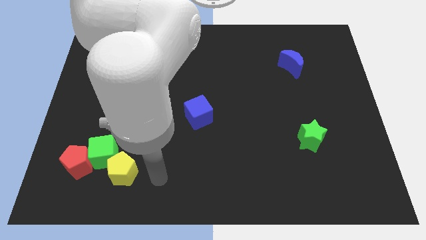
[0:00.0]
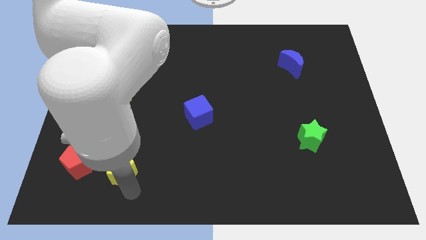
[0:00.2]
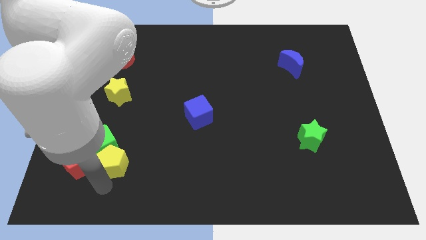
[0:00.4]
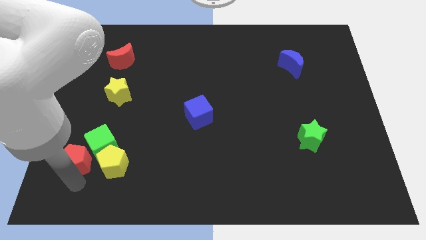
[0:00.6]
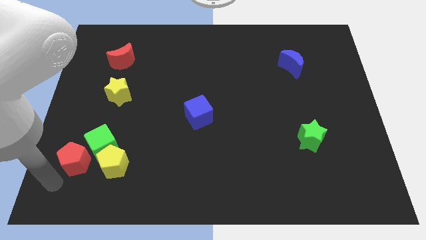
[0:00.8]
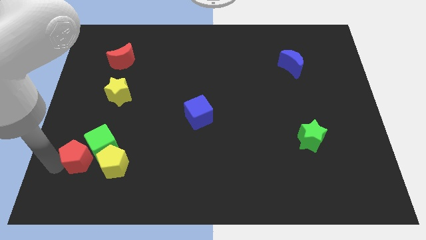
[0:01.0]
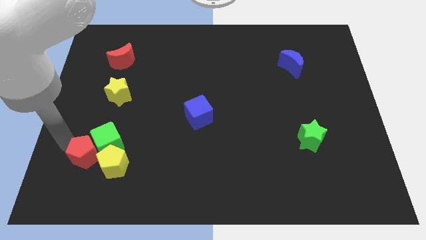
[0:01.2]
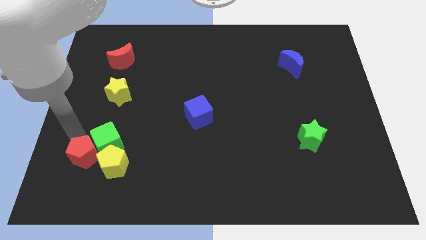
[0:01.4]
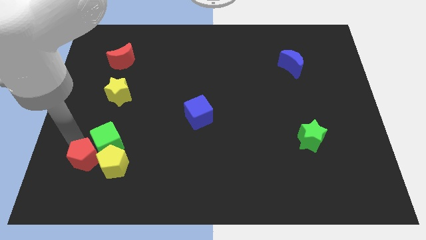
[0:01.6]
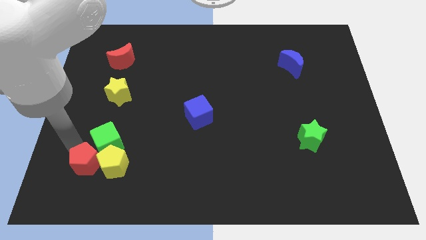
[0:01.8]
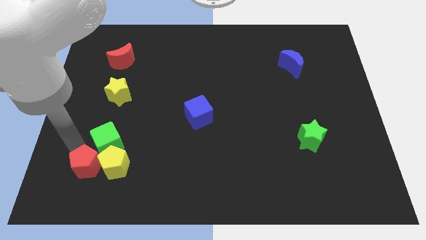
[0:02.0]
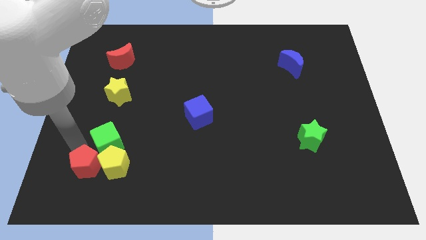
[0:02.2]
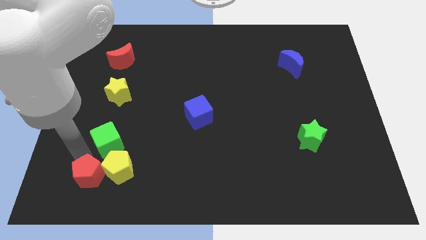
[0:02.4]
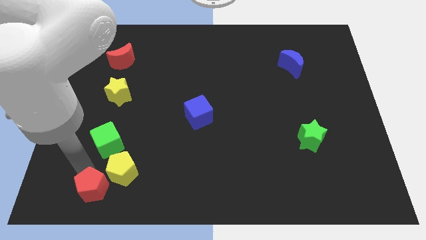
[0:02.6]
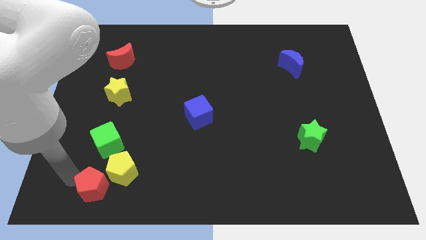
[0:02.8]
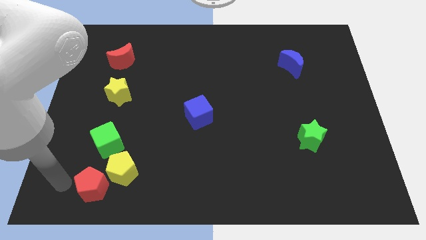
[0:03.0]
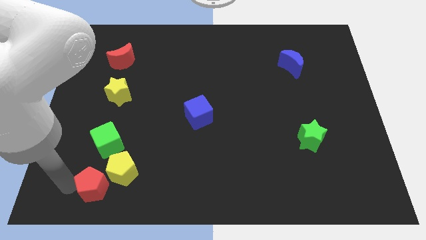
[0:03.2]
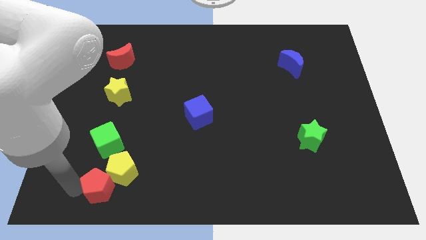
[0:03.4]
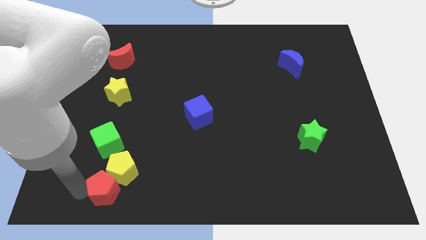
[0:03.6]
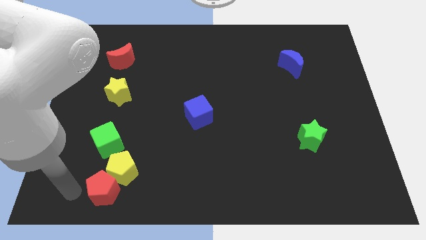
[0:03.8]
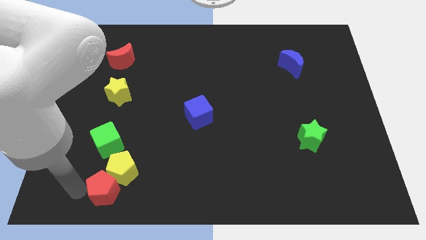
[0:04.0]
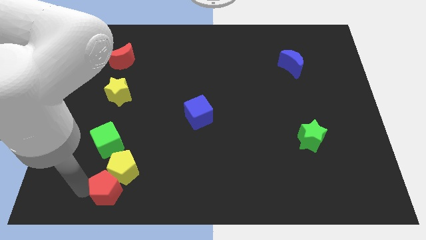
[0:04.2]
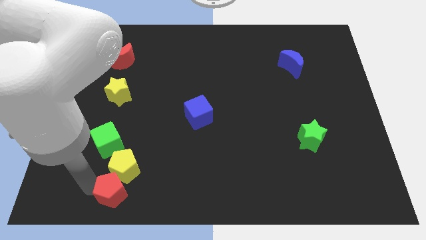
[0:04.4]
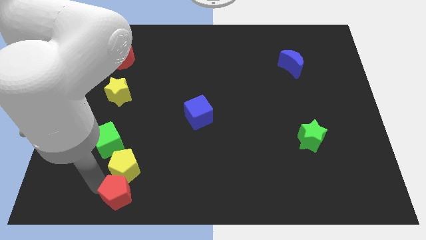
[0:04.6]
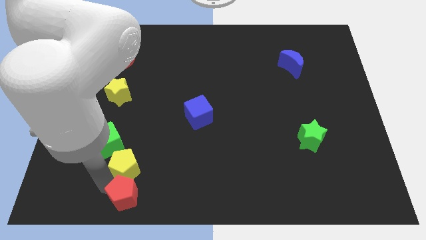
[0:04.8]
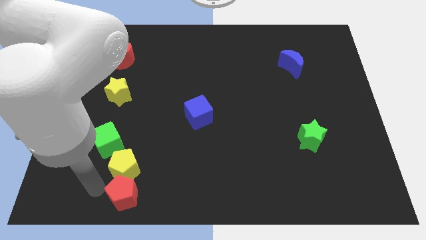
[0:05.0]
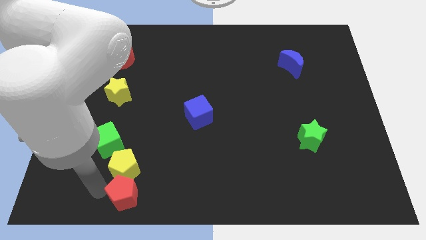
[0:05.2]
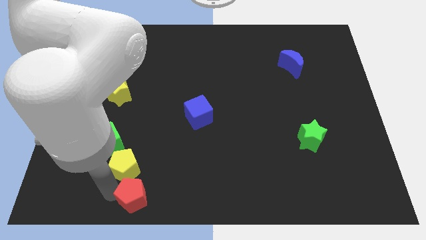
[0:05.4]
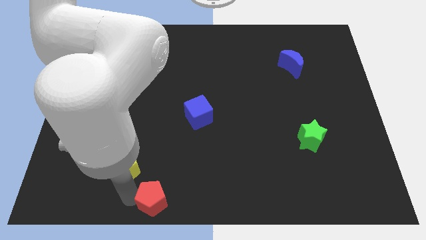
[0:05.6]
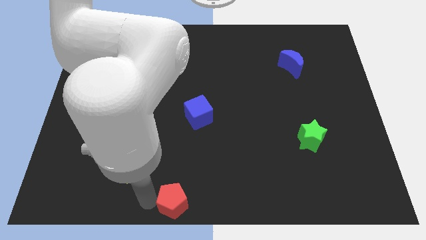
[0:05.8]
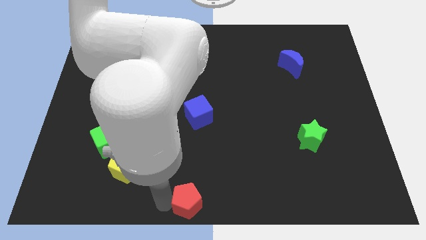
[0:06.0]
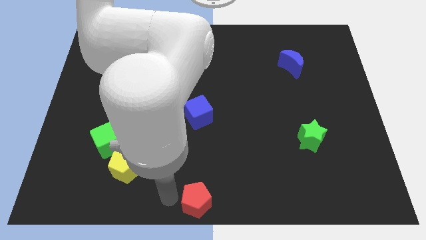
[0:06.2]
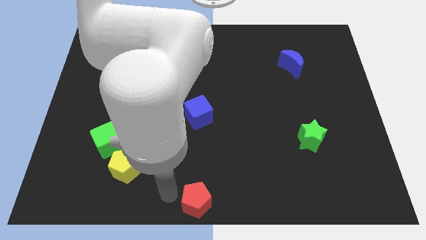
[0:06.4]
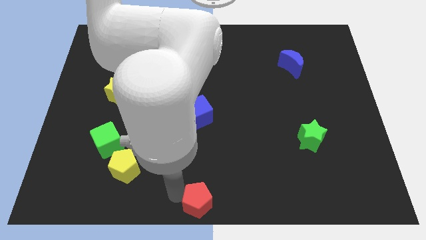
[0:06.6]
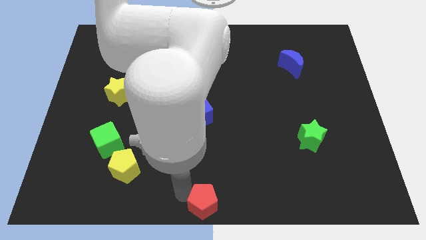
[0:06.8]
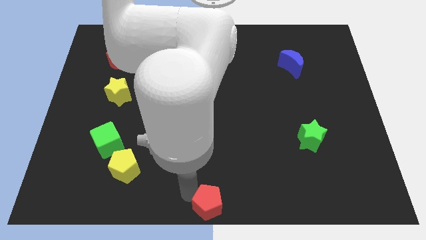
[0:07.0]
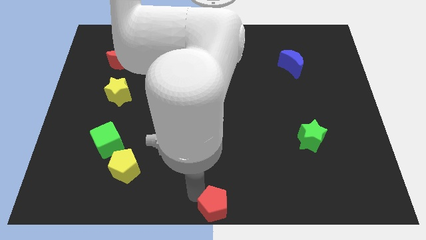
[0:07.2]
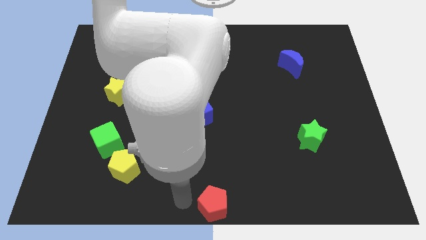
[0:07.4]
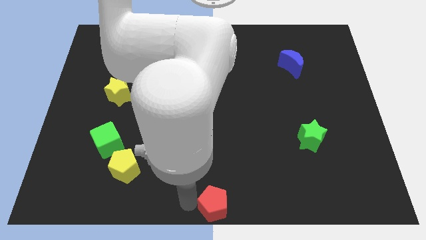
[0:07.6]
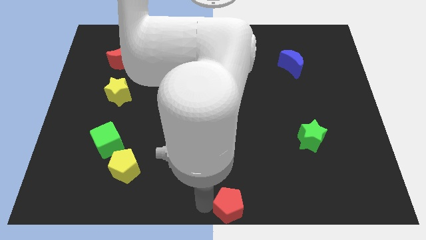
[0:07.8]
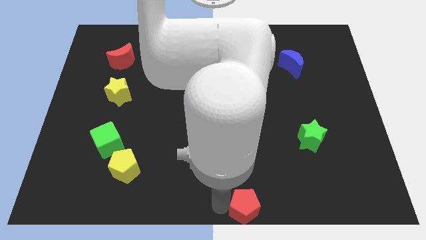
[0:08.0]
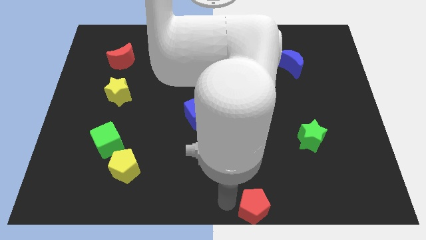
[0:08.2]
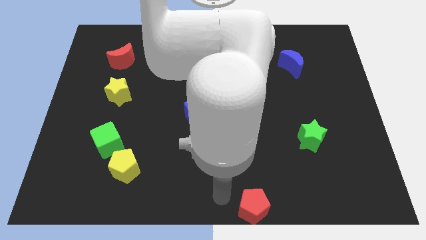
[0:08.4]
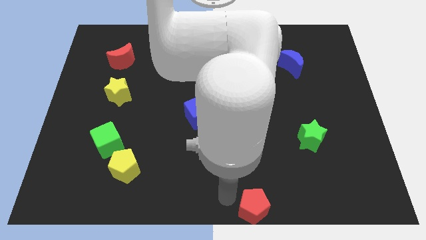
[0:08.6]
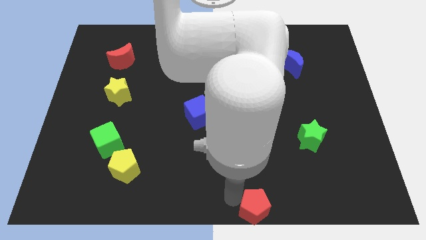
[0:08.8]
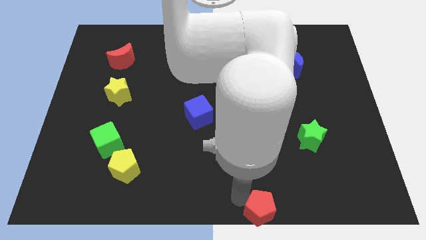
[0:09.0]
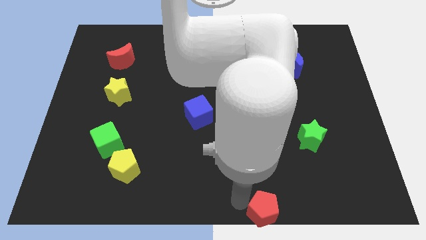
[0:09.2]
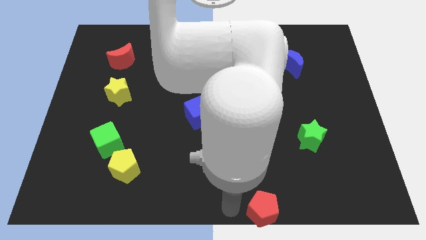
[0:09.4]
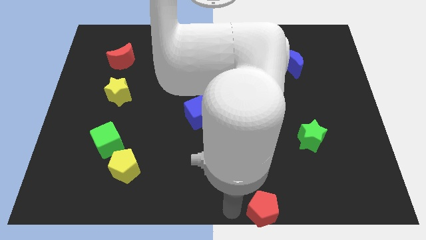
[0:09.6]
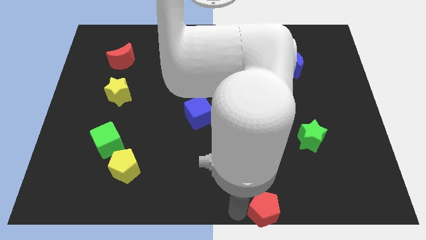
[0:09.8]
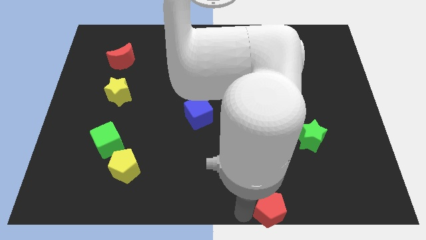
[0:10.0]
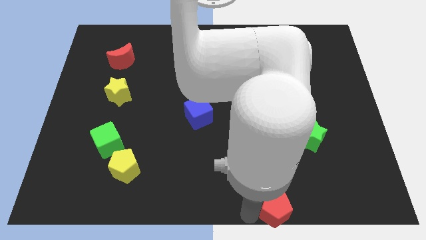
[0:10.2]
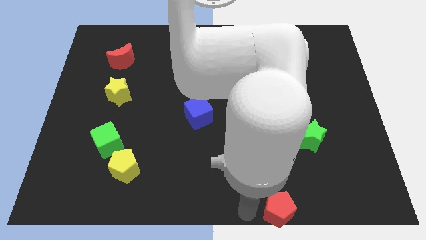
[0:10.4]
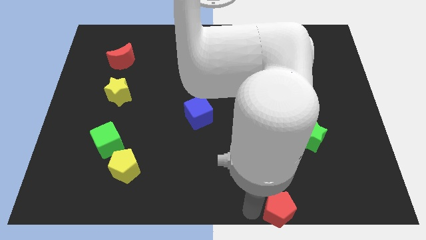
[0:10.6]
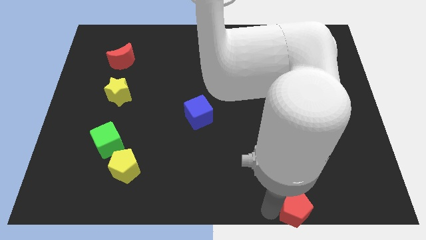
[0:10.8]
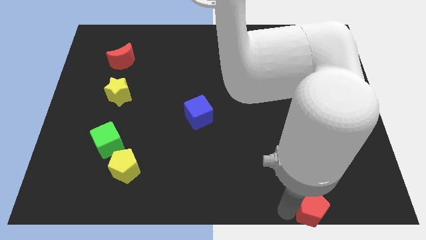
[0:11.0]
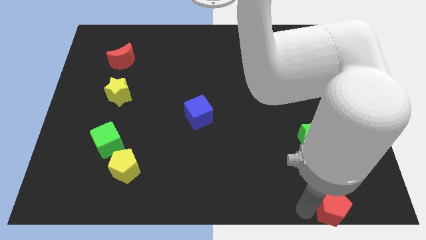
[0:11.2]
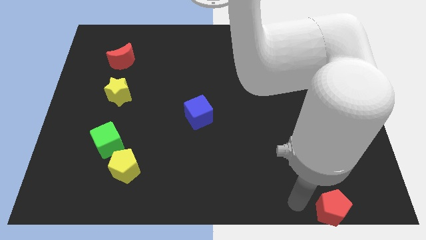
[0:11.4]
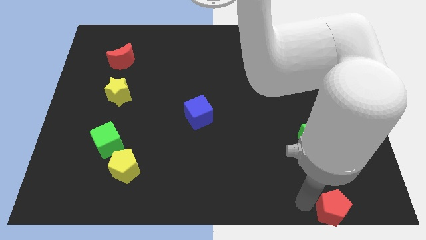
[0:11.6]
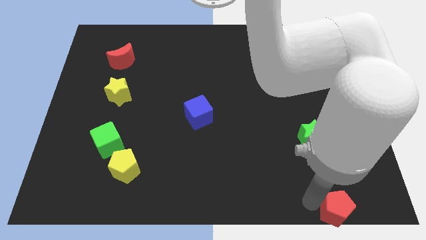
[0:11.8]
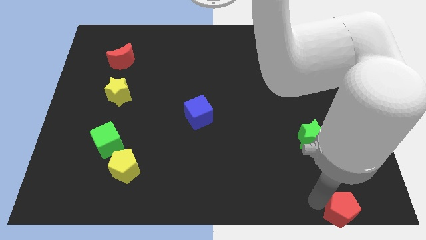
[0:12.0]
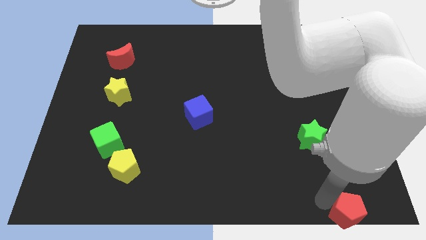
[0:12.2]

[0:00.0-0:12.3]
move the red pentagon to the lower right corner

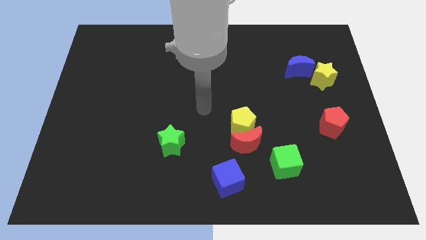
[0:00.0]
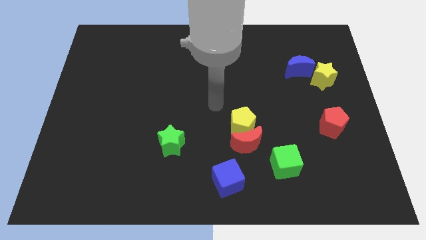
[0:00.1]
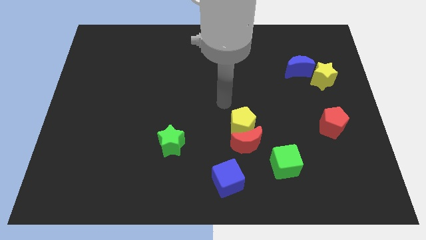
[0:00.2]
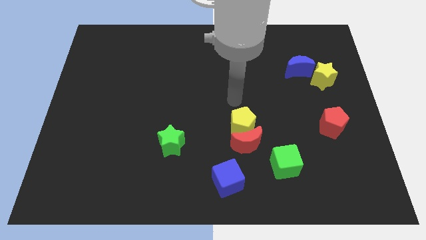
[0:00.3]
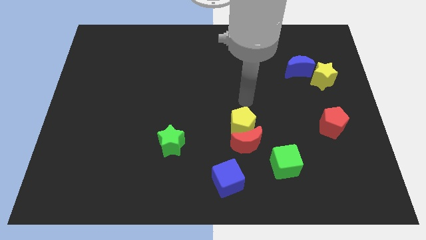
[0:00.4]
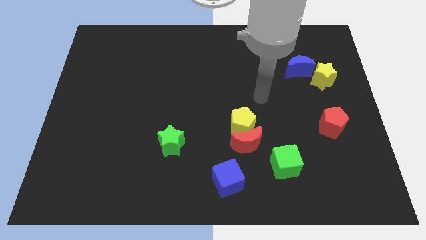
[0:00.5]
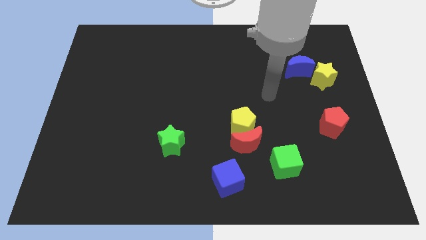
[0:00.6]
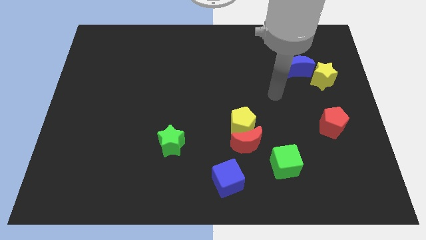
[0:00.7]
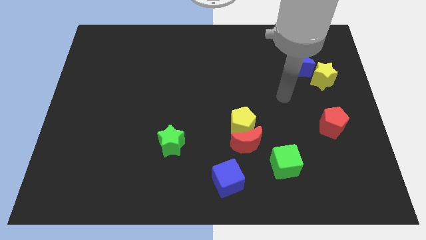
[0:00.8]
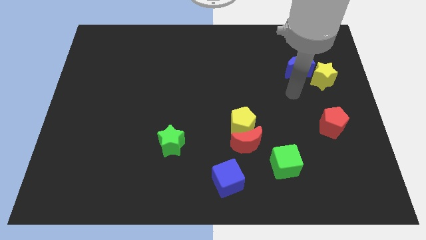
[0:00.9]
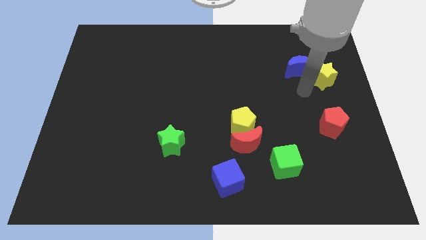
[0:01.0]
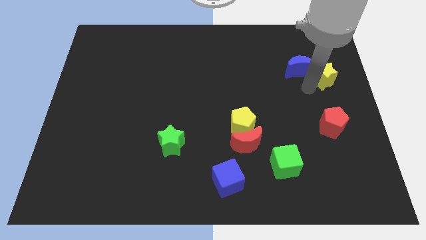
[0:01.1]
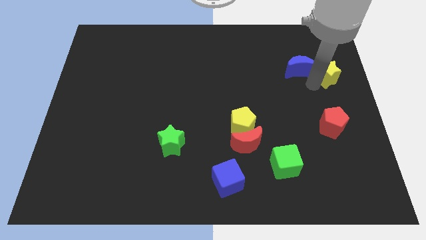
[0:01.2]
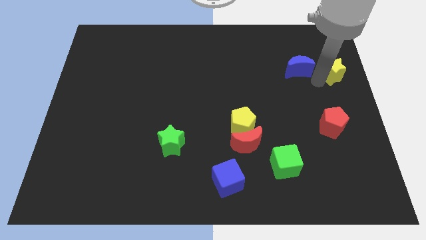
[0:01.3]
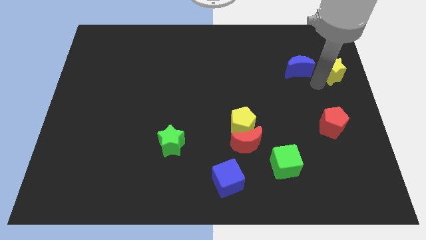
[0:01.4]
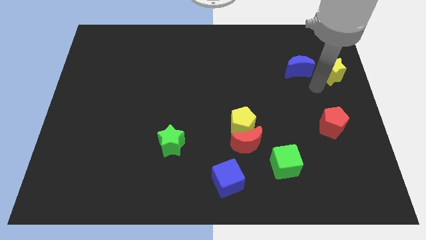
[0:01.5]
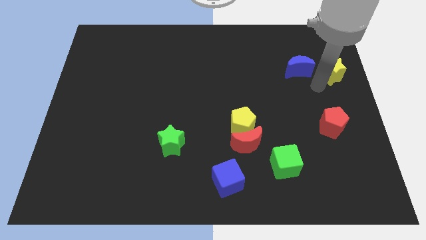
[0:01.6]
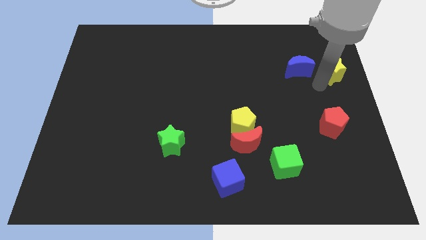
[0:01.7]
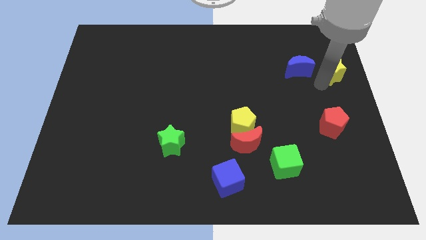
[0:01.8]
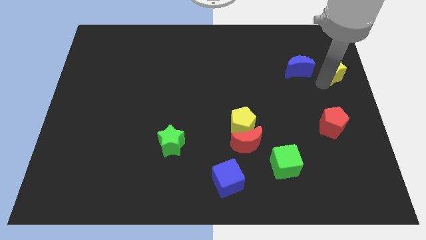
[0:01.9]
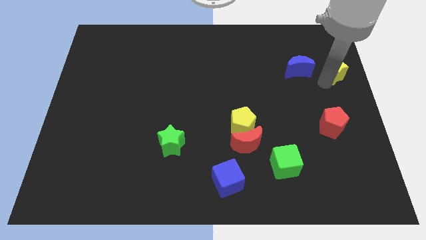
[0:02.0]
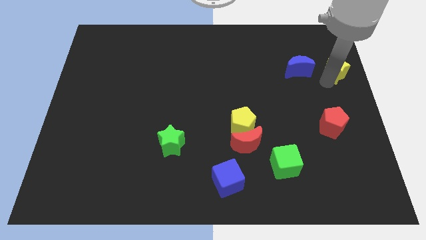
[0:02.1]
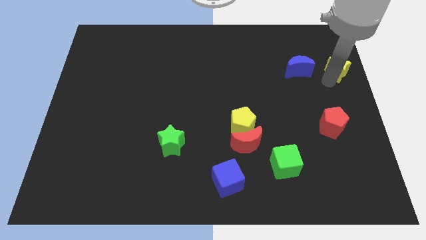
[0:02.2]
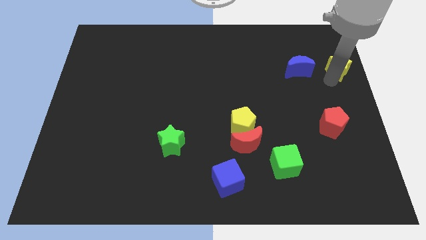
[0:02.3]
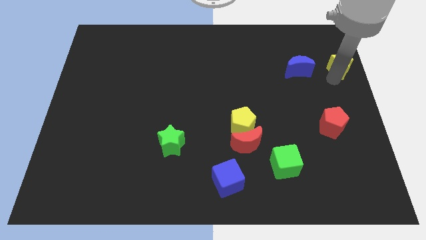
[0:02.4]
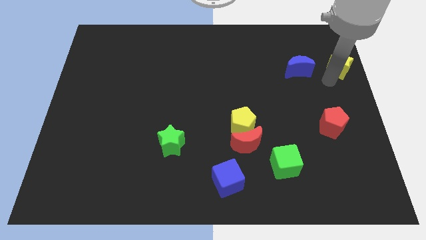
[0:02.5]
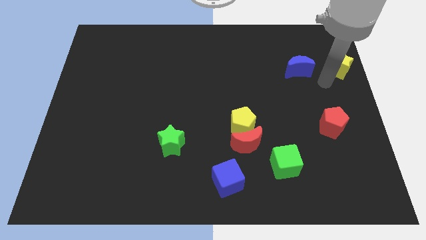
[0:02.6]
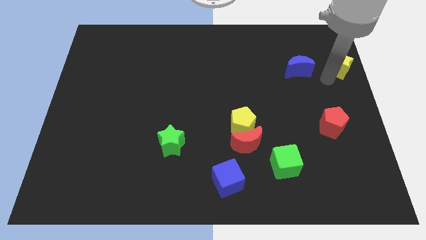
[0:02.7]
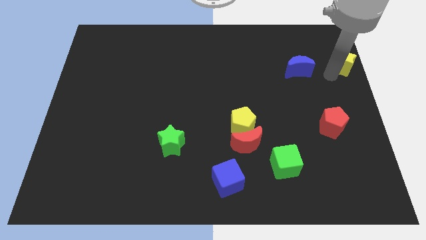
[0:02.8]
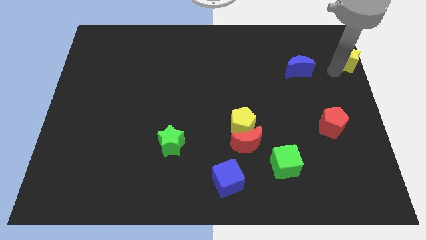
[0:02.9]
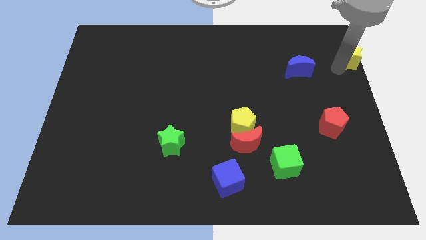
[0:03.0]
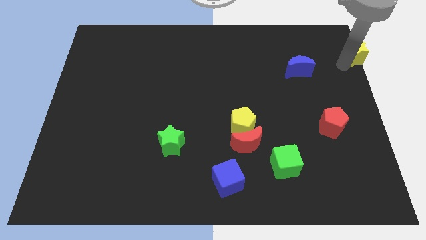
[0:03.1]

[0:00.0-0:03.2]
move the yellow star to the upper right corner
